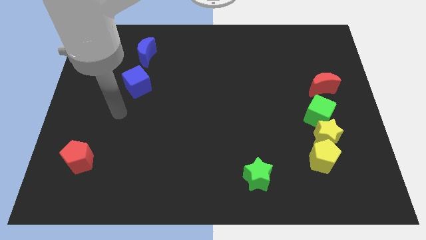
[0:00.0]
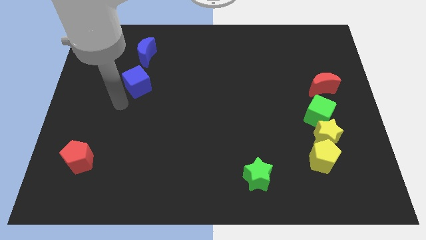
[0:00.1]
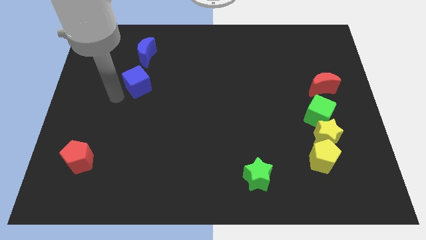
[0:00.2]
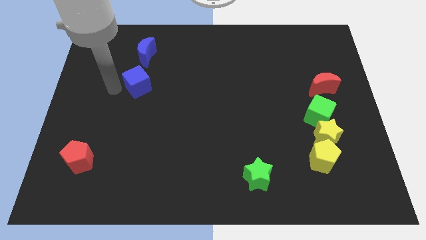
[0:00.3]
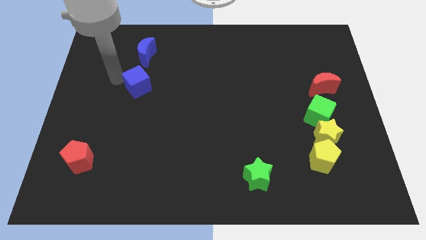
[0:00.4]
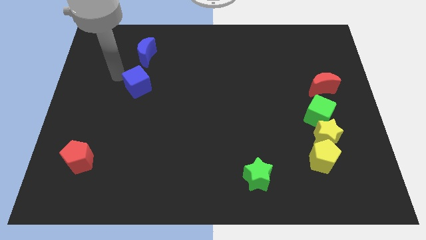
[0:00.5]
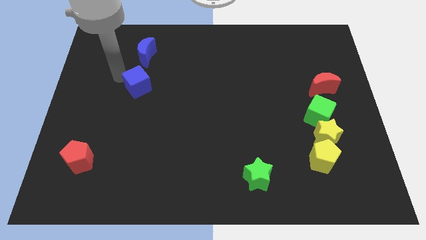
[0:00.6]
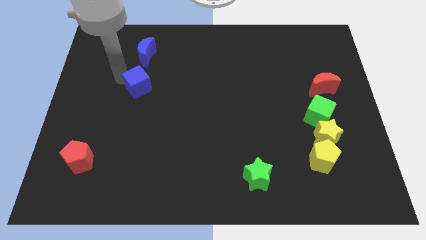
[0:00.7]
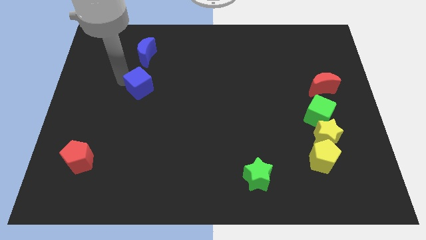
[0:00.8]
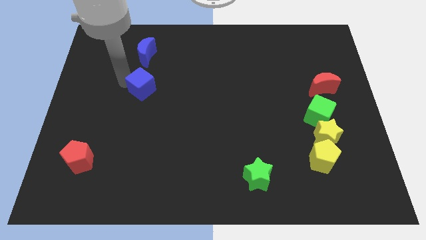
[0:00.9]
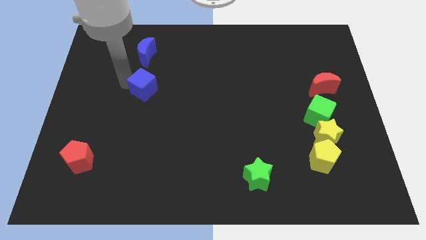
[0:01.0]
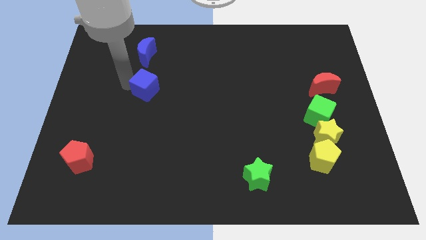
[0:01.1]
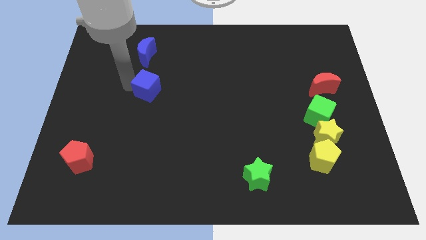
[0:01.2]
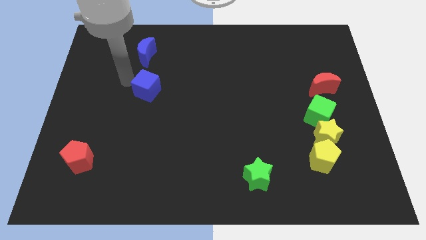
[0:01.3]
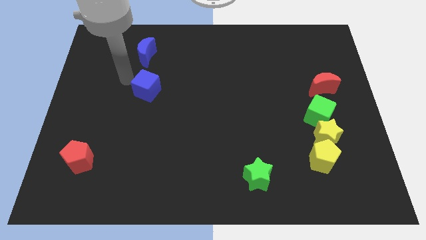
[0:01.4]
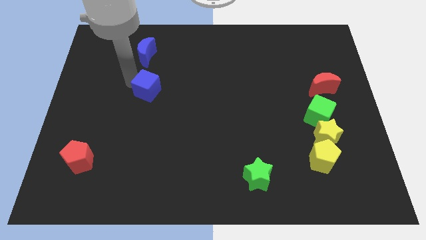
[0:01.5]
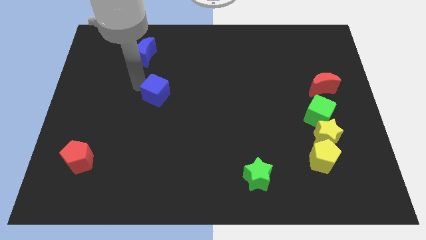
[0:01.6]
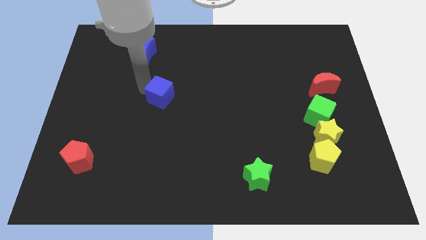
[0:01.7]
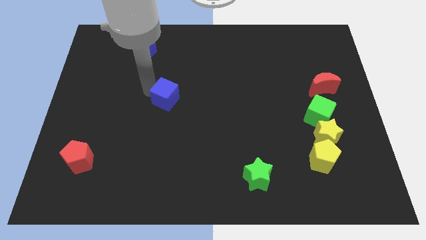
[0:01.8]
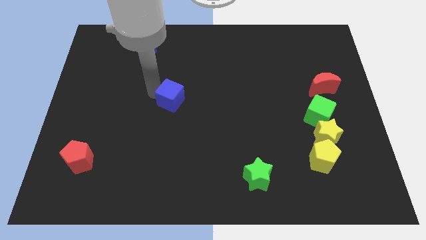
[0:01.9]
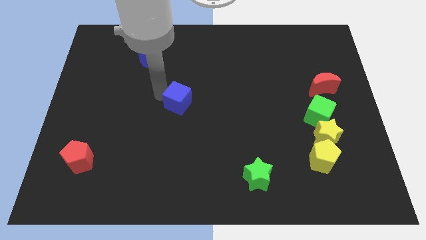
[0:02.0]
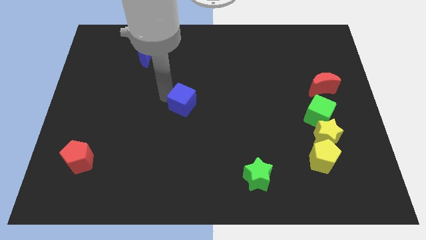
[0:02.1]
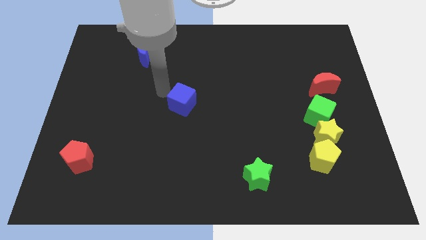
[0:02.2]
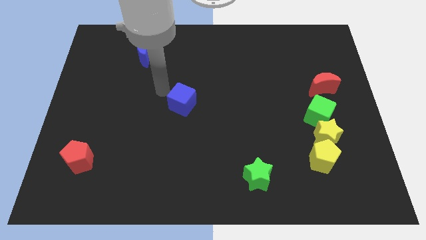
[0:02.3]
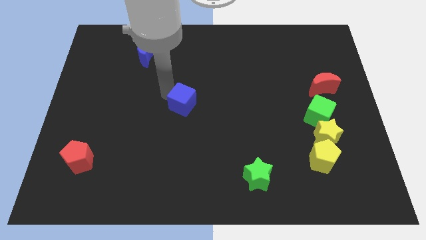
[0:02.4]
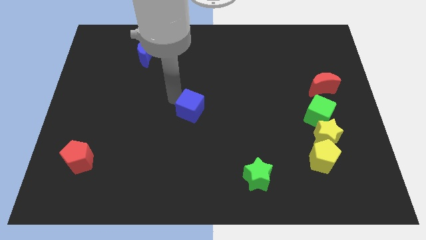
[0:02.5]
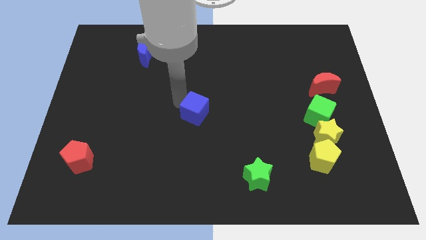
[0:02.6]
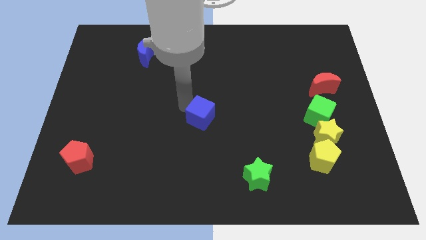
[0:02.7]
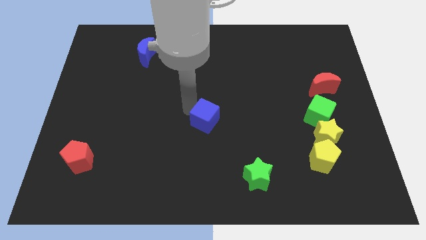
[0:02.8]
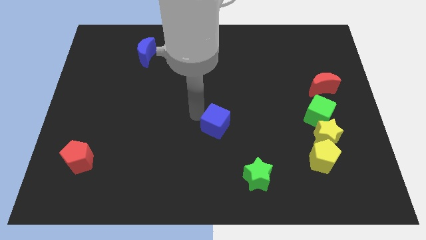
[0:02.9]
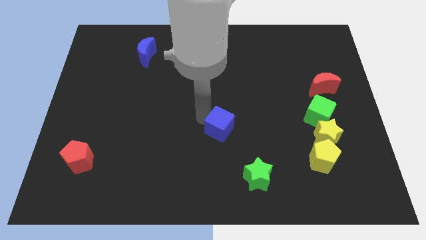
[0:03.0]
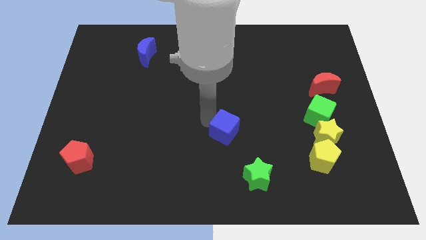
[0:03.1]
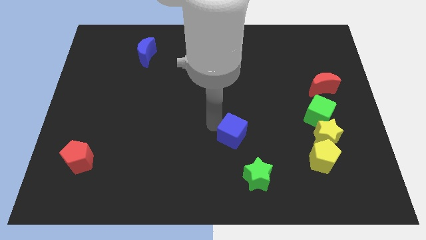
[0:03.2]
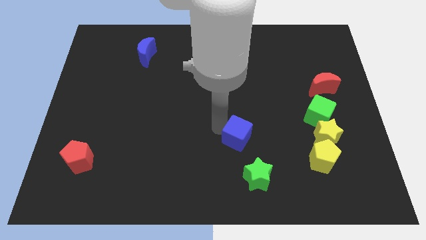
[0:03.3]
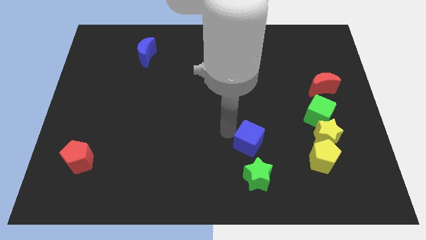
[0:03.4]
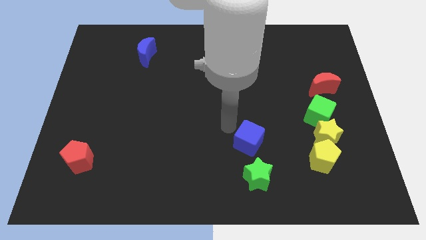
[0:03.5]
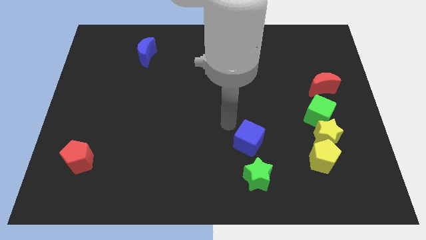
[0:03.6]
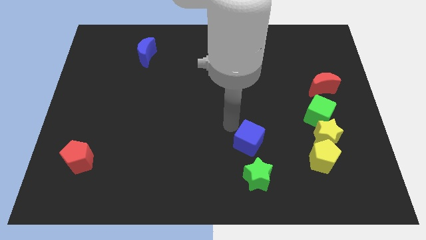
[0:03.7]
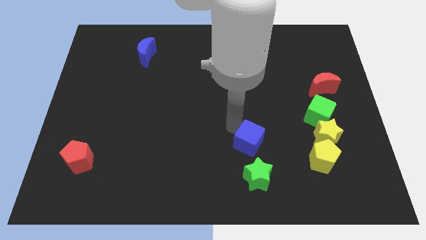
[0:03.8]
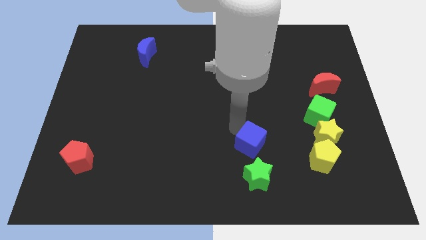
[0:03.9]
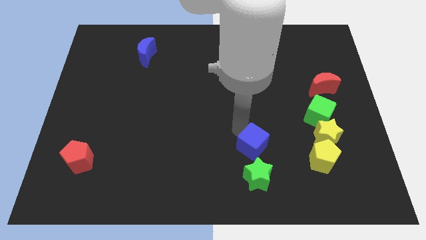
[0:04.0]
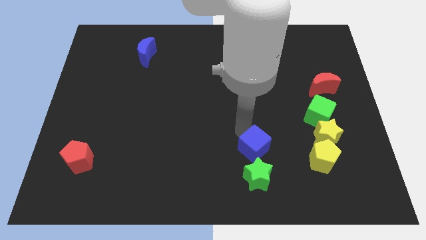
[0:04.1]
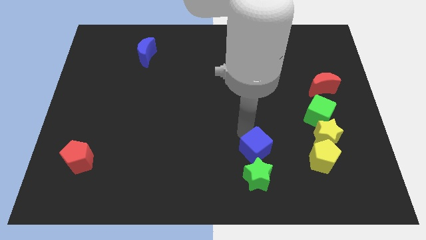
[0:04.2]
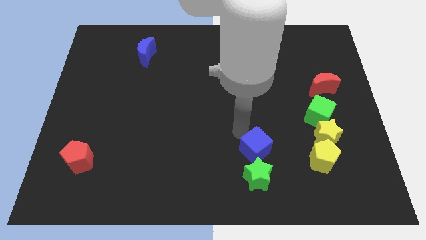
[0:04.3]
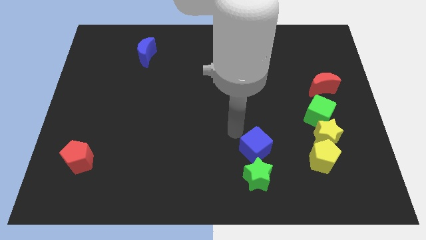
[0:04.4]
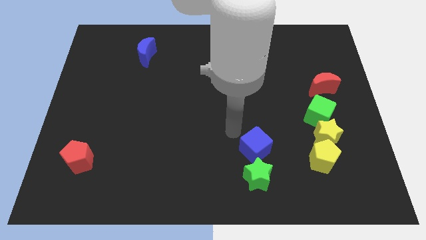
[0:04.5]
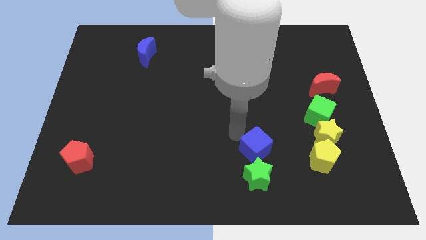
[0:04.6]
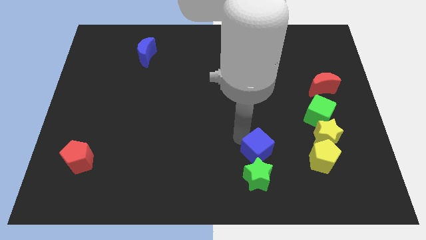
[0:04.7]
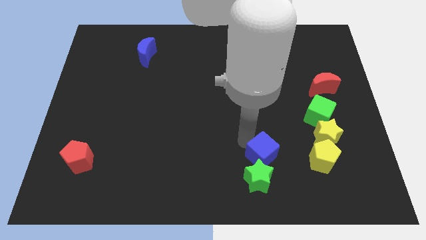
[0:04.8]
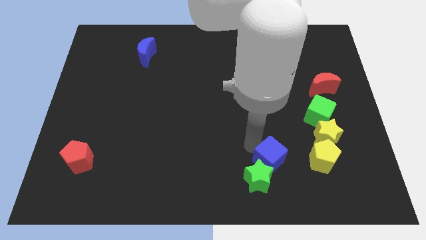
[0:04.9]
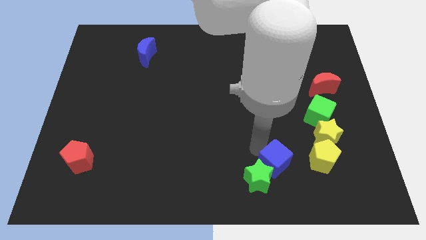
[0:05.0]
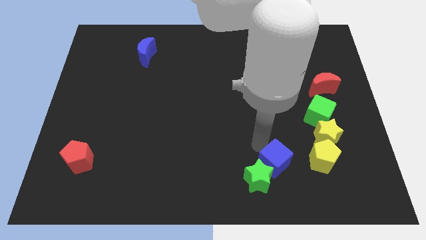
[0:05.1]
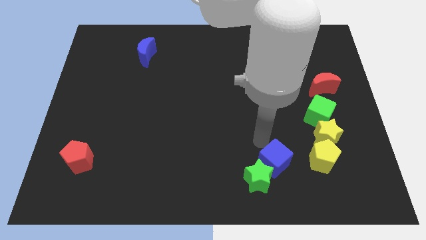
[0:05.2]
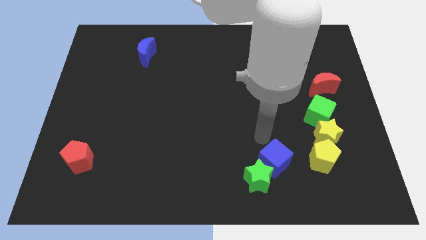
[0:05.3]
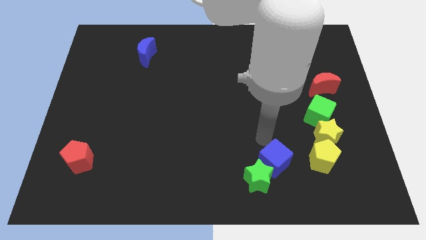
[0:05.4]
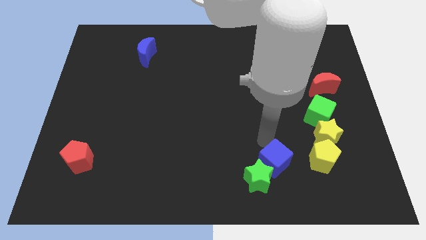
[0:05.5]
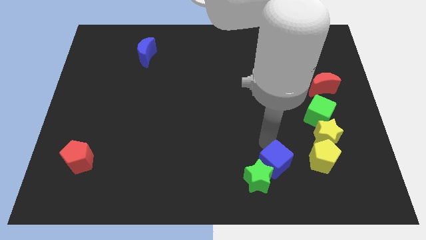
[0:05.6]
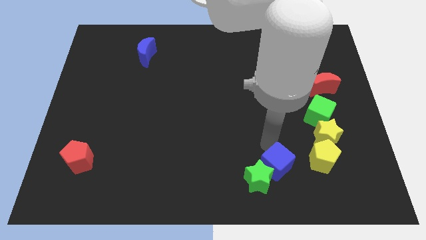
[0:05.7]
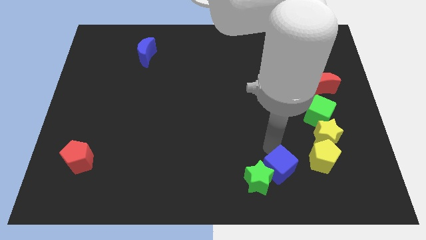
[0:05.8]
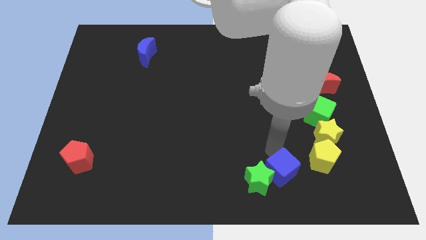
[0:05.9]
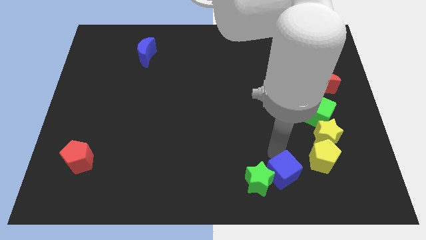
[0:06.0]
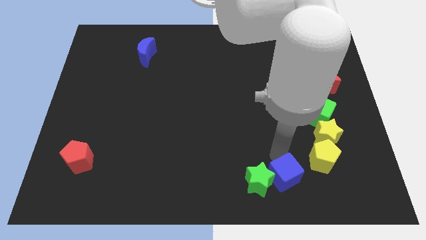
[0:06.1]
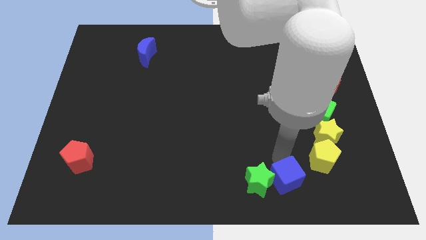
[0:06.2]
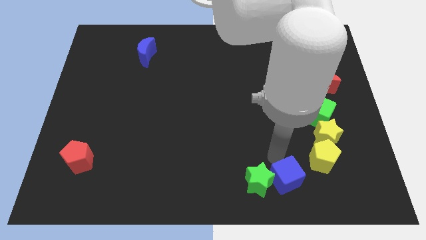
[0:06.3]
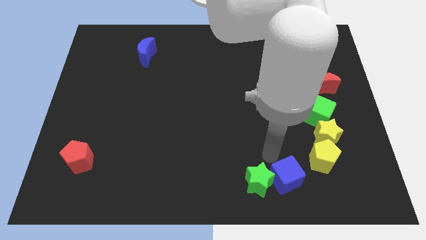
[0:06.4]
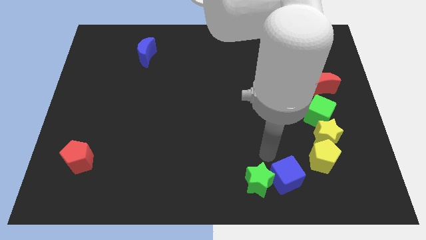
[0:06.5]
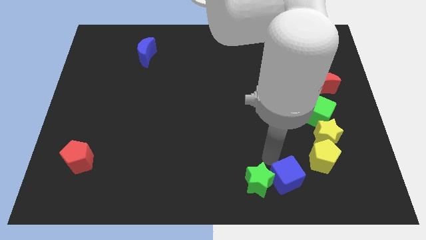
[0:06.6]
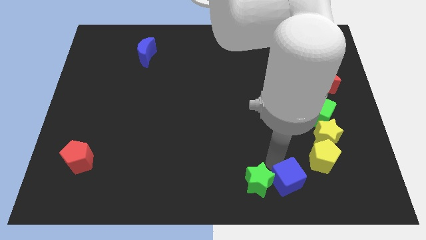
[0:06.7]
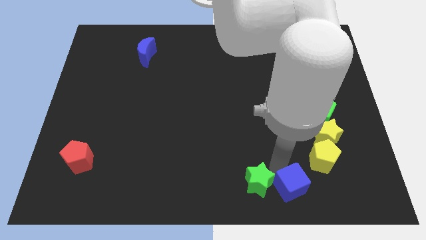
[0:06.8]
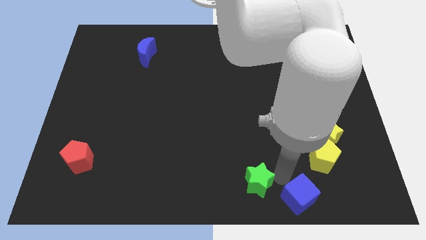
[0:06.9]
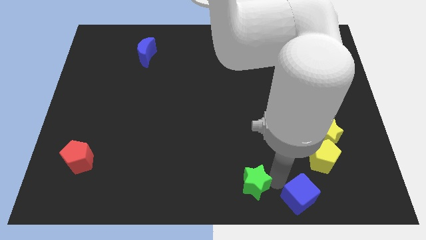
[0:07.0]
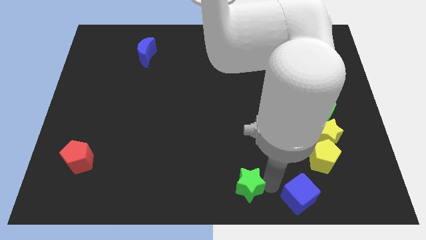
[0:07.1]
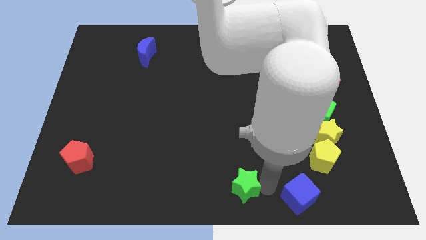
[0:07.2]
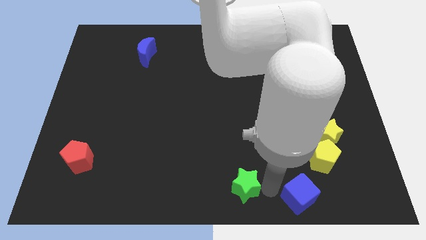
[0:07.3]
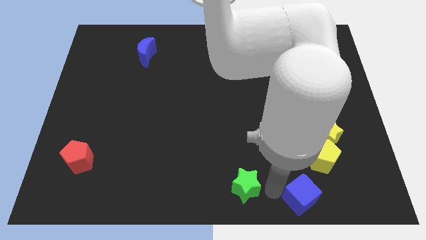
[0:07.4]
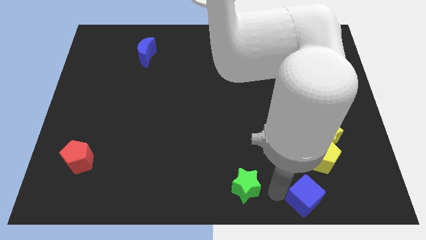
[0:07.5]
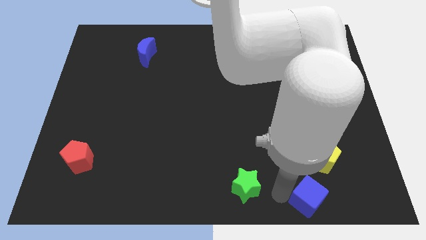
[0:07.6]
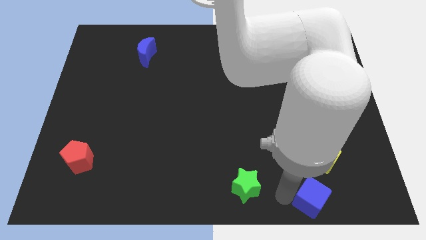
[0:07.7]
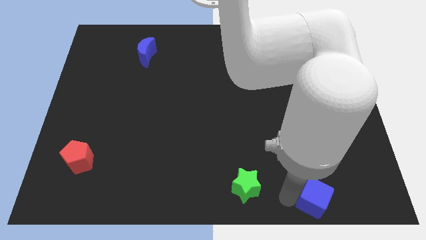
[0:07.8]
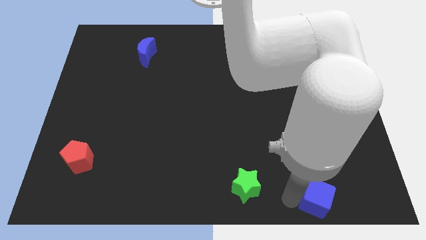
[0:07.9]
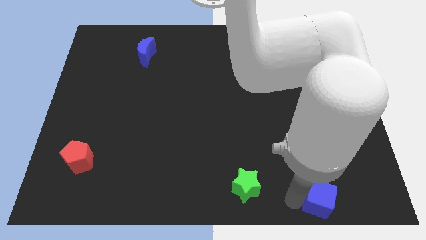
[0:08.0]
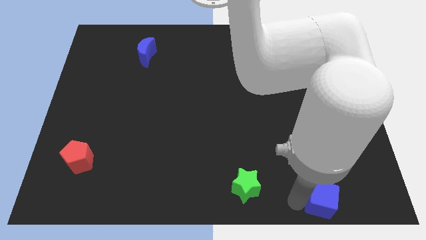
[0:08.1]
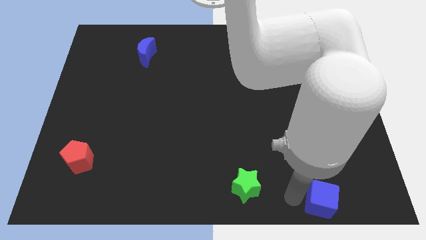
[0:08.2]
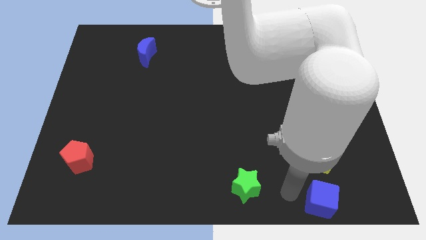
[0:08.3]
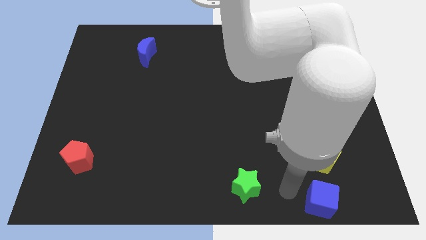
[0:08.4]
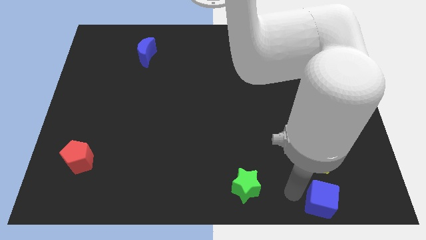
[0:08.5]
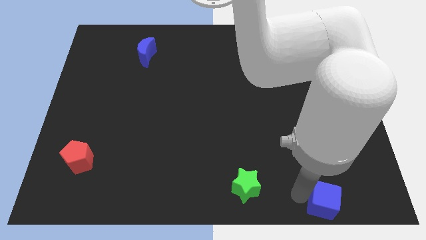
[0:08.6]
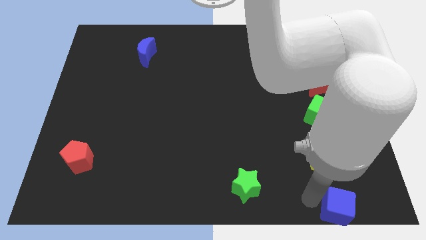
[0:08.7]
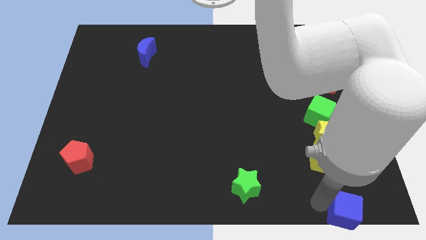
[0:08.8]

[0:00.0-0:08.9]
slide the blue cube to the bottom right corner
